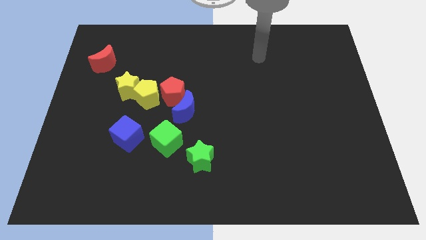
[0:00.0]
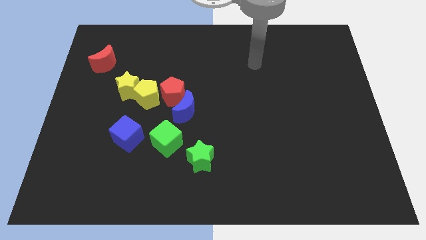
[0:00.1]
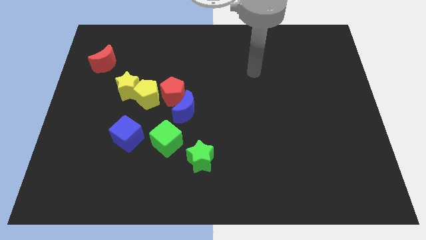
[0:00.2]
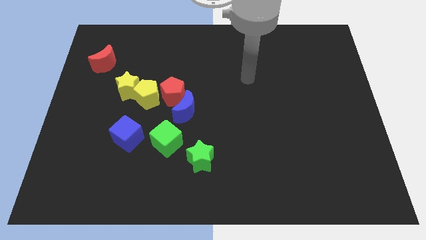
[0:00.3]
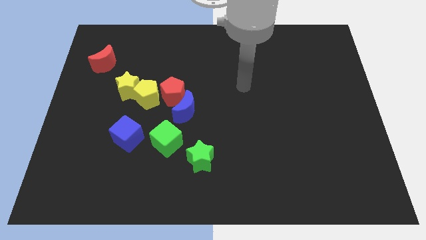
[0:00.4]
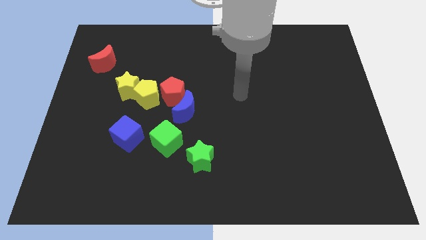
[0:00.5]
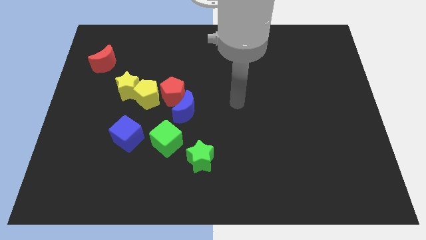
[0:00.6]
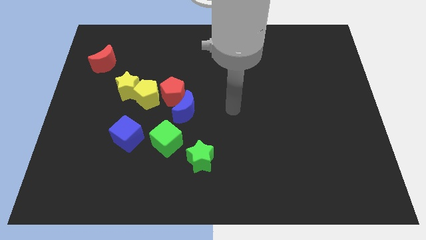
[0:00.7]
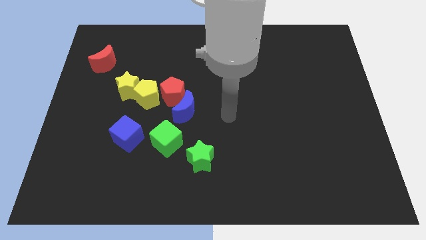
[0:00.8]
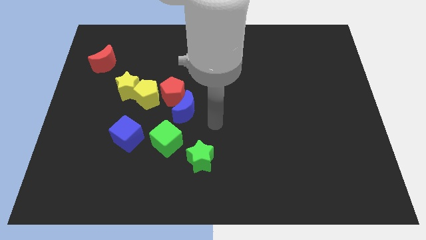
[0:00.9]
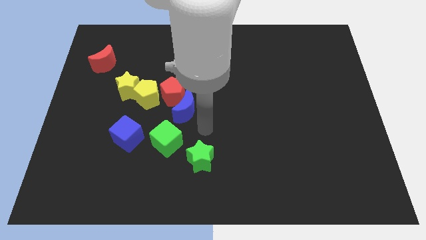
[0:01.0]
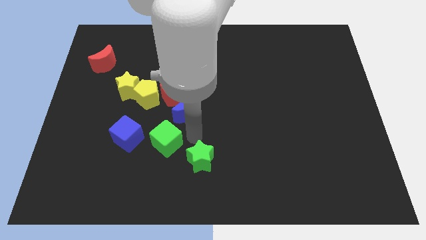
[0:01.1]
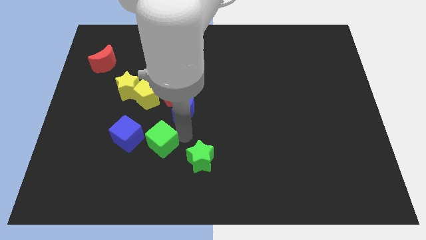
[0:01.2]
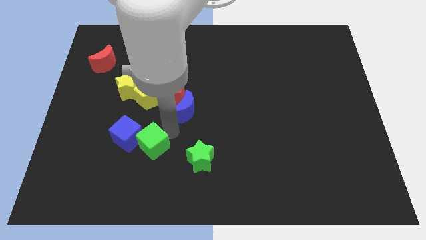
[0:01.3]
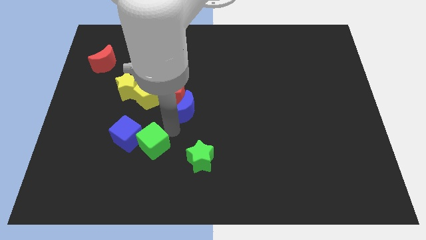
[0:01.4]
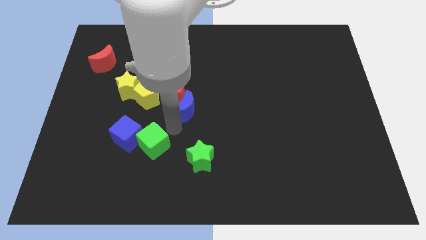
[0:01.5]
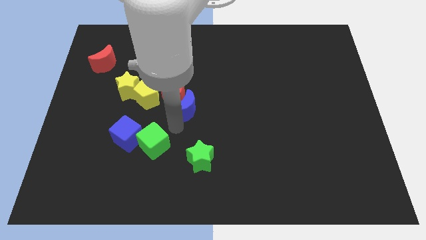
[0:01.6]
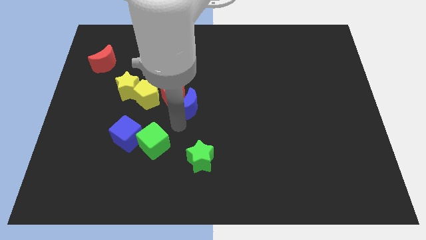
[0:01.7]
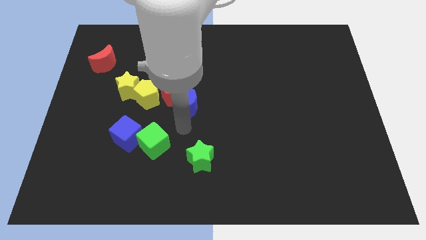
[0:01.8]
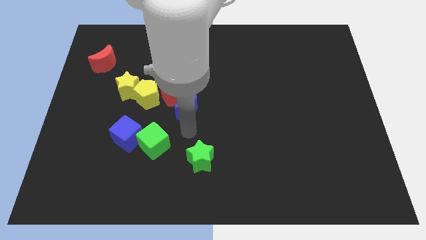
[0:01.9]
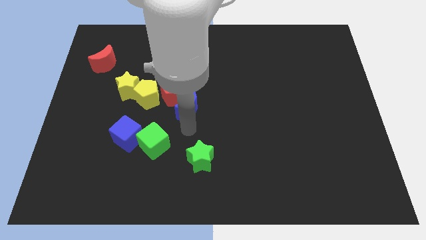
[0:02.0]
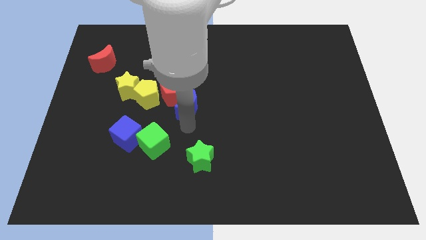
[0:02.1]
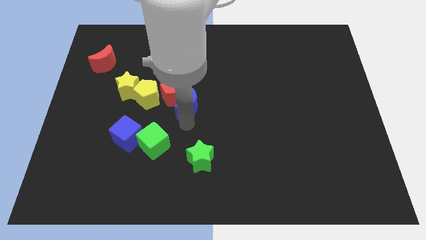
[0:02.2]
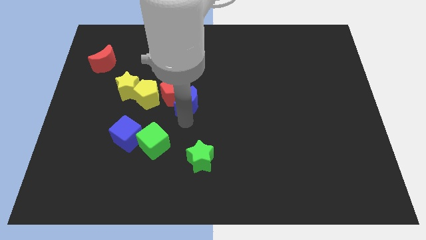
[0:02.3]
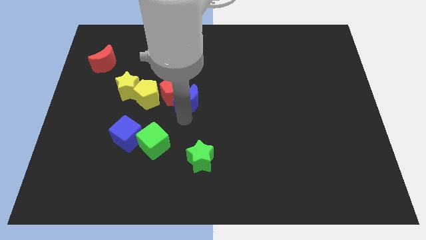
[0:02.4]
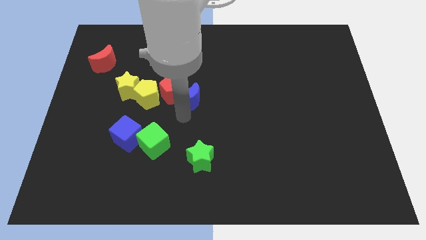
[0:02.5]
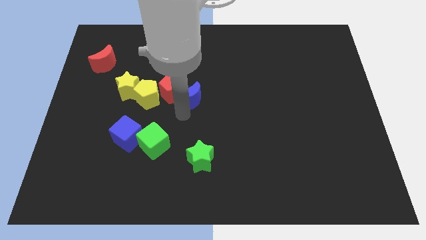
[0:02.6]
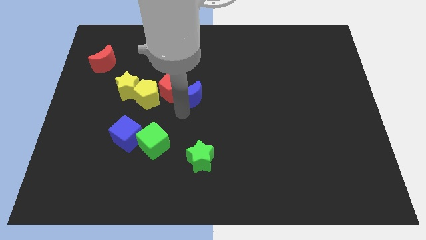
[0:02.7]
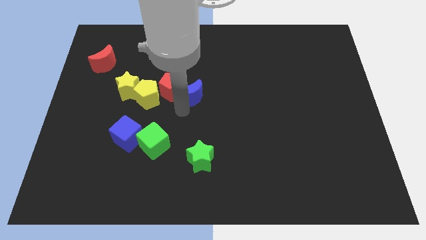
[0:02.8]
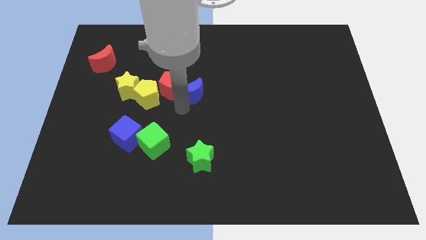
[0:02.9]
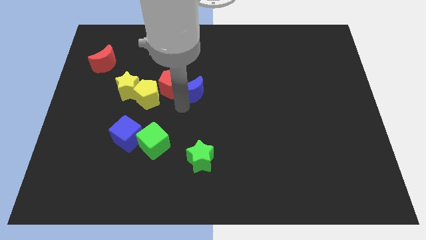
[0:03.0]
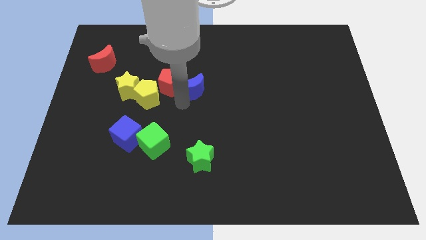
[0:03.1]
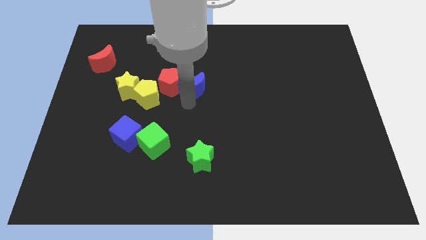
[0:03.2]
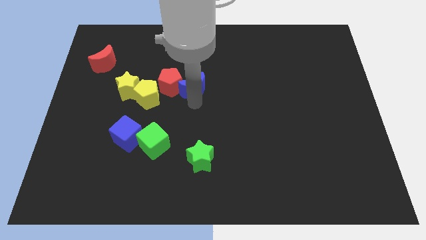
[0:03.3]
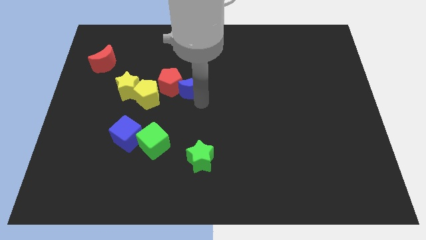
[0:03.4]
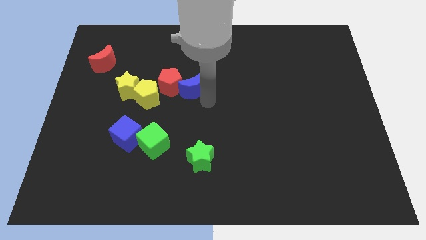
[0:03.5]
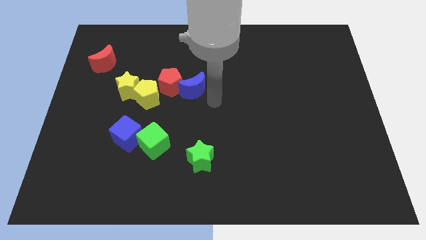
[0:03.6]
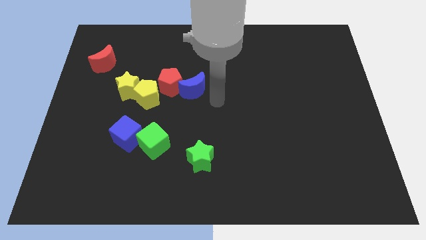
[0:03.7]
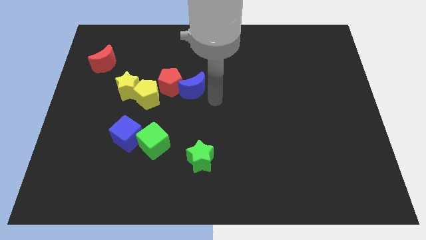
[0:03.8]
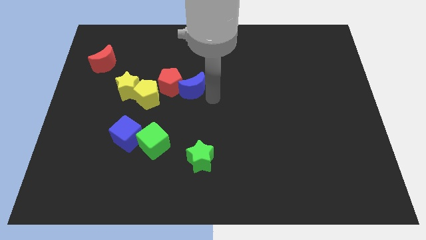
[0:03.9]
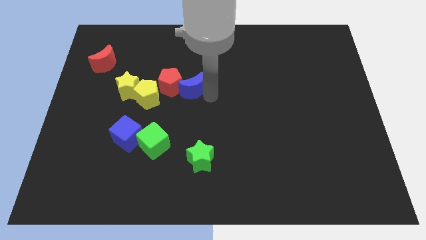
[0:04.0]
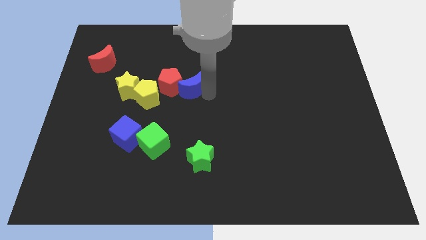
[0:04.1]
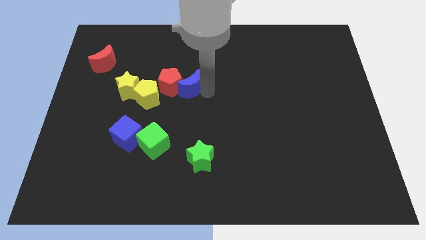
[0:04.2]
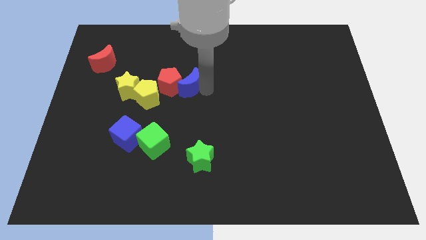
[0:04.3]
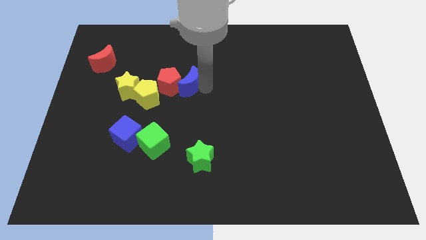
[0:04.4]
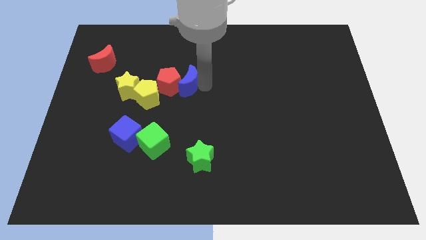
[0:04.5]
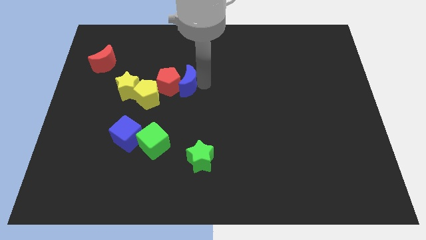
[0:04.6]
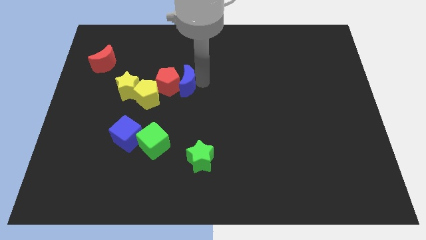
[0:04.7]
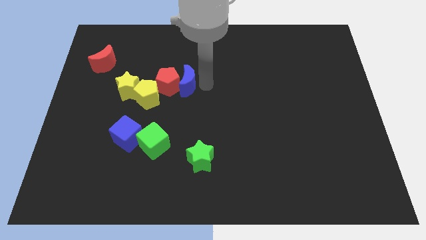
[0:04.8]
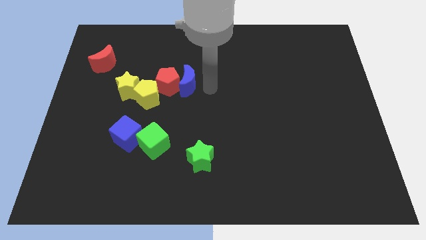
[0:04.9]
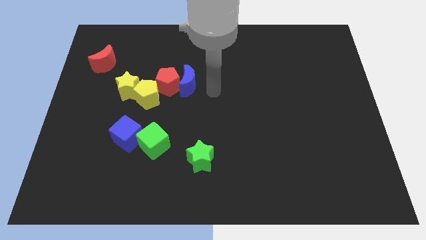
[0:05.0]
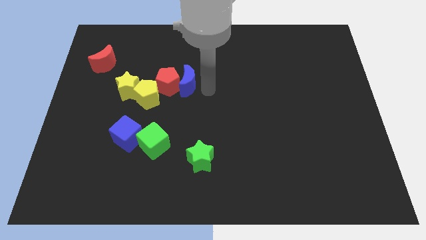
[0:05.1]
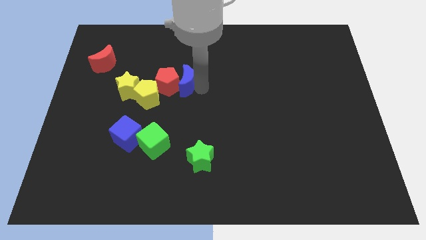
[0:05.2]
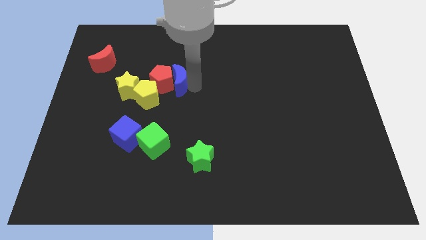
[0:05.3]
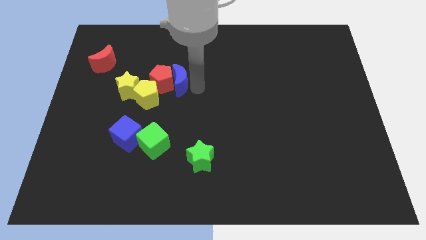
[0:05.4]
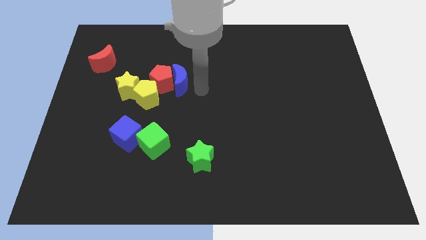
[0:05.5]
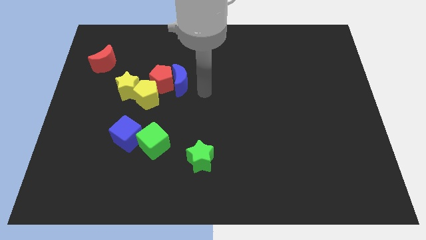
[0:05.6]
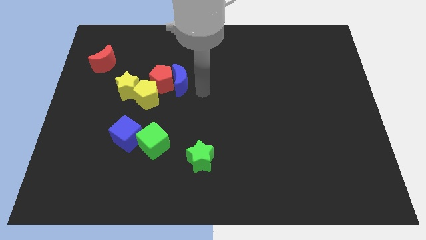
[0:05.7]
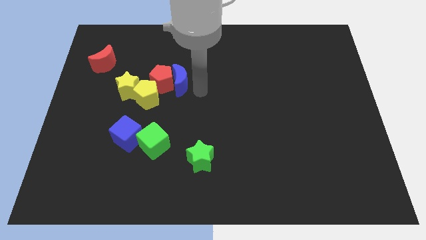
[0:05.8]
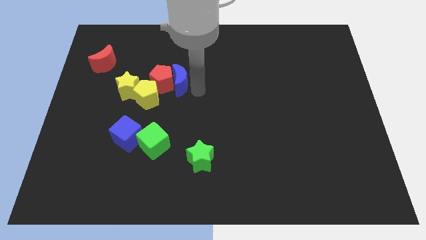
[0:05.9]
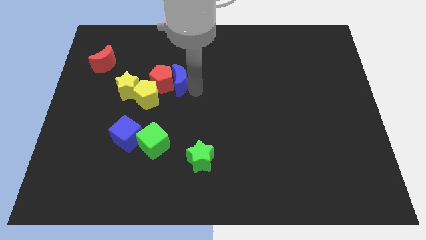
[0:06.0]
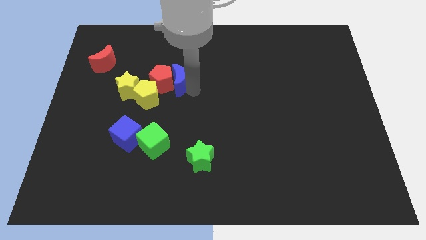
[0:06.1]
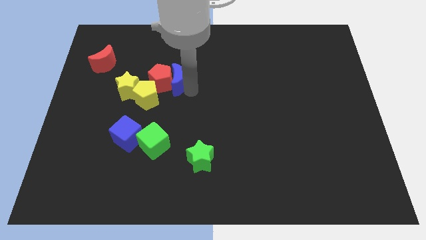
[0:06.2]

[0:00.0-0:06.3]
slide the blue moon somewhat up and left

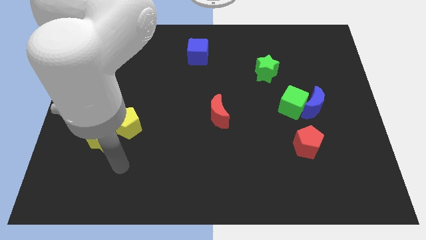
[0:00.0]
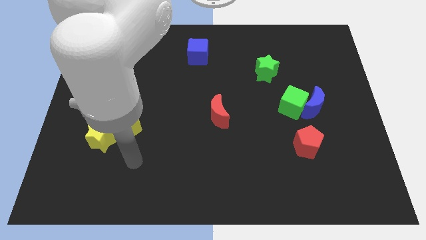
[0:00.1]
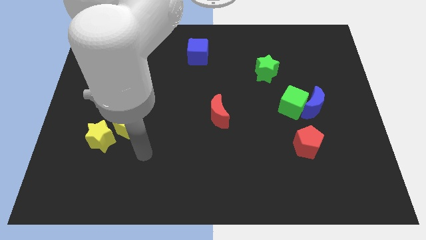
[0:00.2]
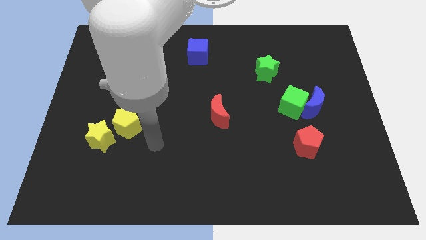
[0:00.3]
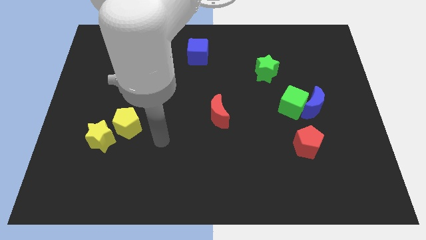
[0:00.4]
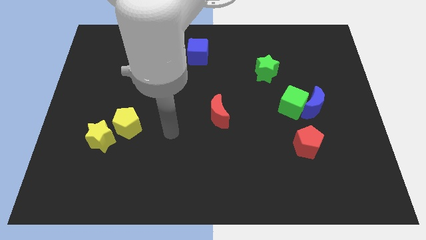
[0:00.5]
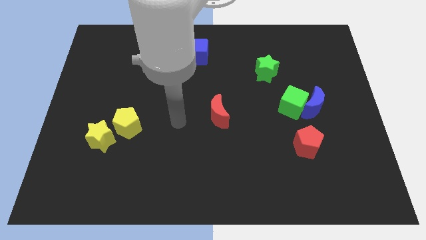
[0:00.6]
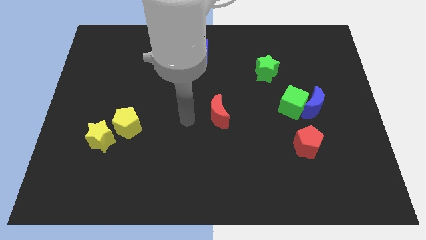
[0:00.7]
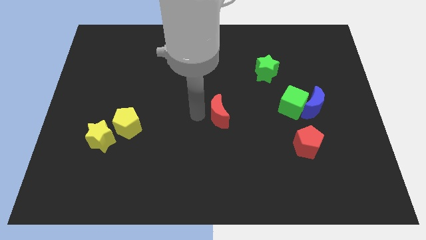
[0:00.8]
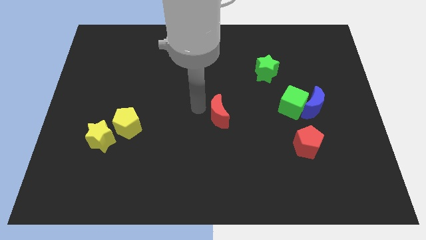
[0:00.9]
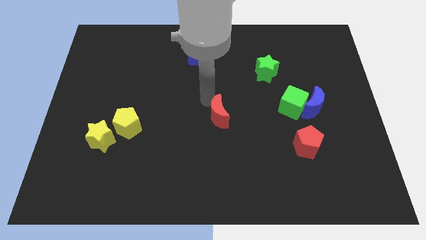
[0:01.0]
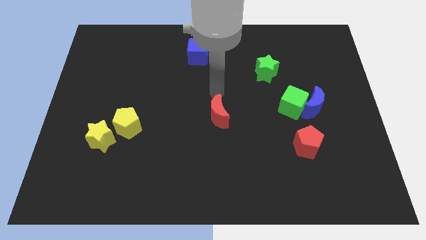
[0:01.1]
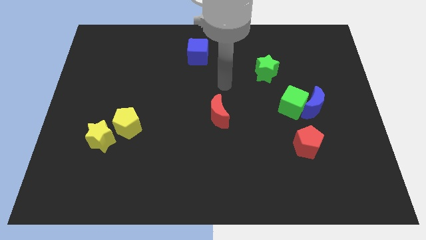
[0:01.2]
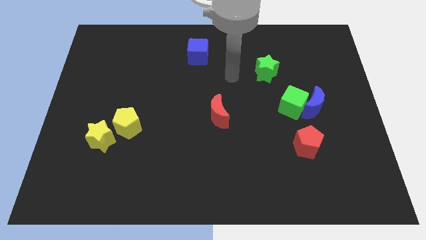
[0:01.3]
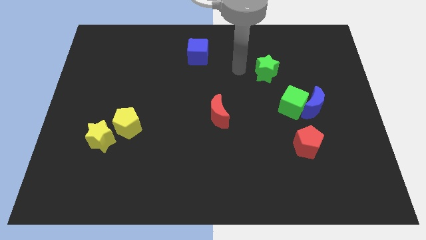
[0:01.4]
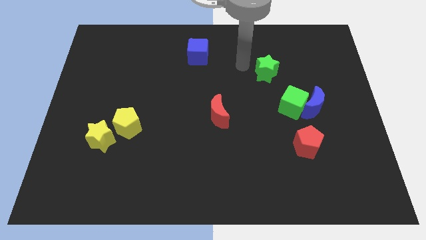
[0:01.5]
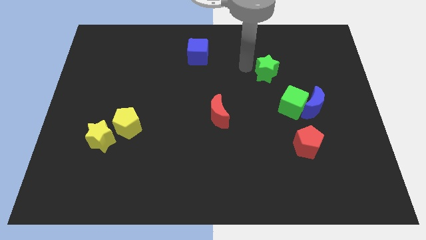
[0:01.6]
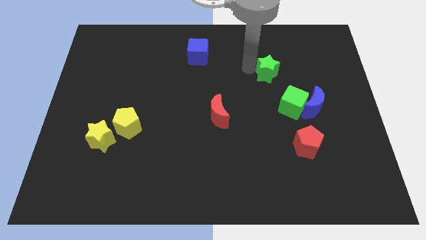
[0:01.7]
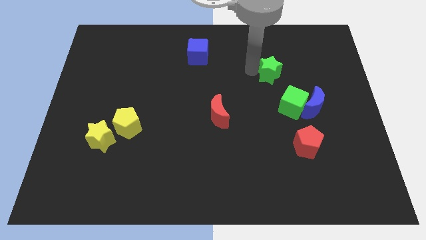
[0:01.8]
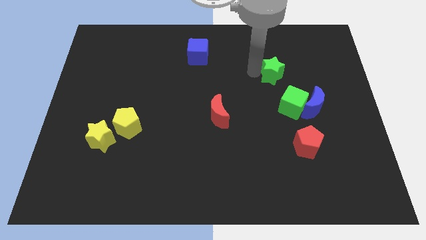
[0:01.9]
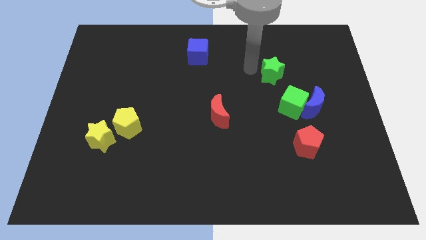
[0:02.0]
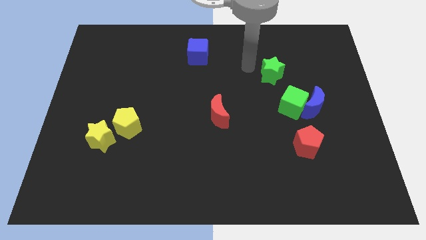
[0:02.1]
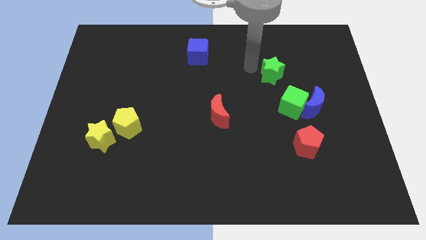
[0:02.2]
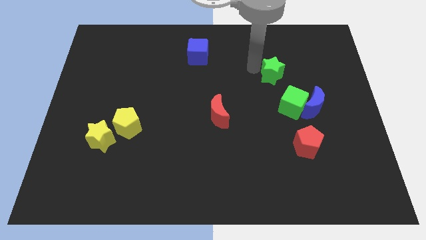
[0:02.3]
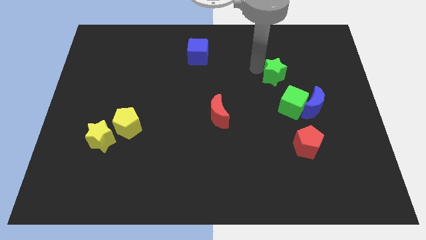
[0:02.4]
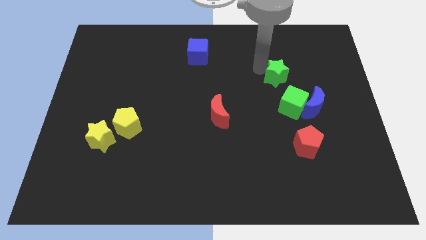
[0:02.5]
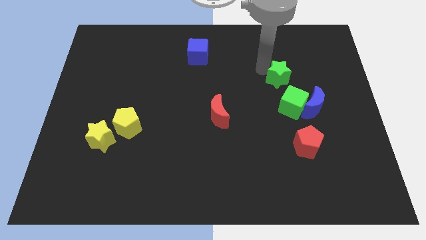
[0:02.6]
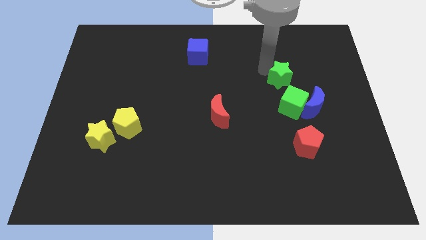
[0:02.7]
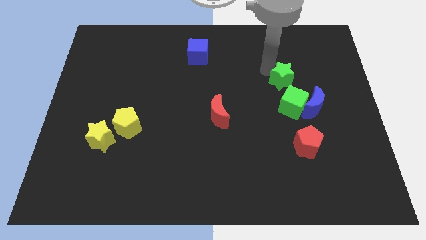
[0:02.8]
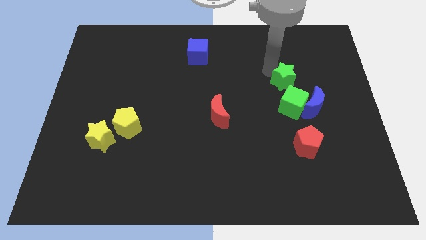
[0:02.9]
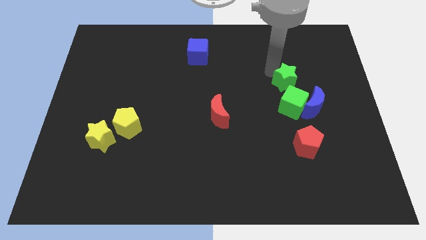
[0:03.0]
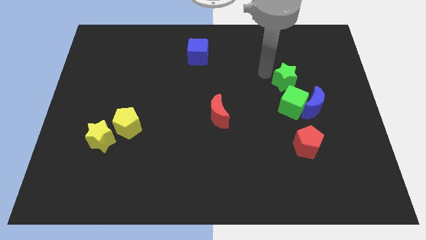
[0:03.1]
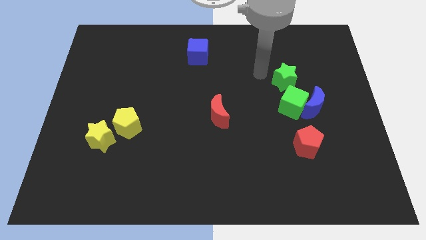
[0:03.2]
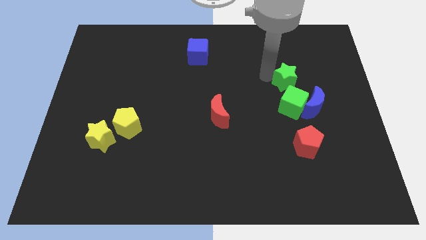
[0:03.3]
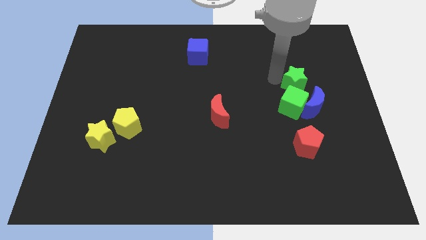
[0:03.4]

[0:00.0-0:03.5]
slightly move the green star downwards and right
